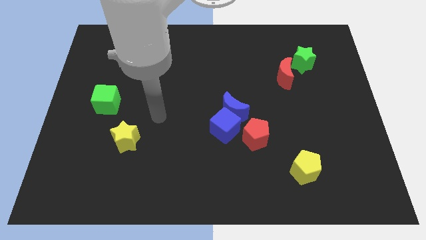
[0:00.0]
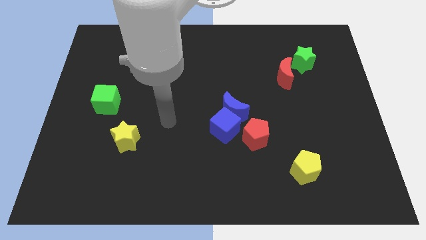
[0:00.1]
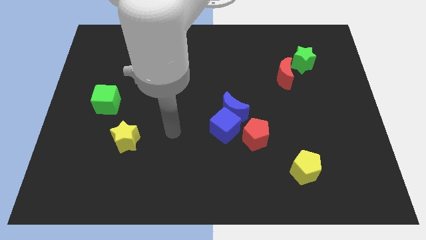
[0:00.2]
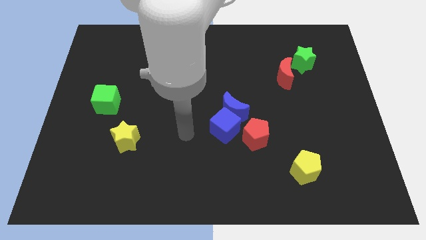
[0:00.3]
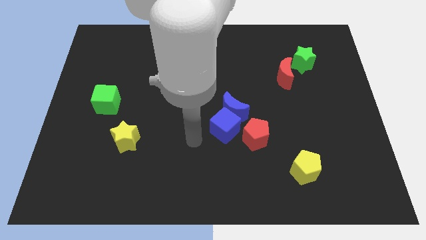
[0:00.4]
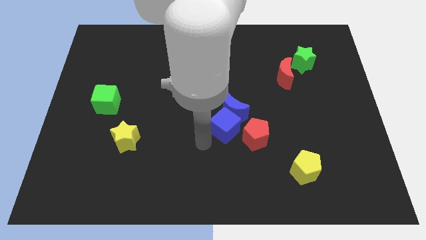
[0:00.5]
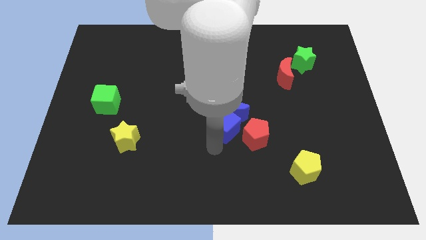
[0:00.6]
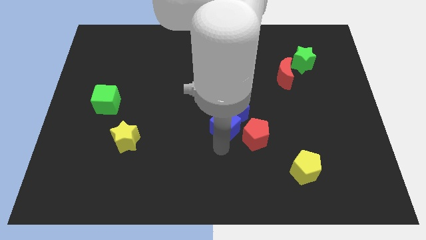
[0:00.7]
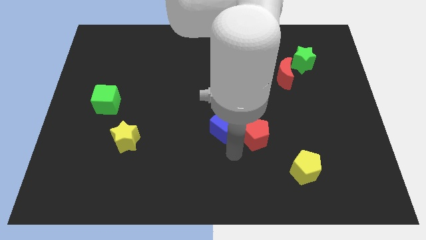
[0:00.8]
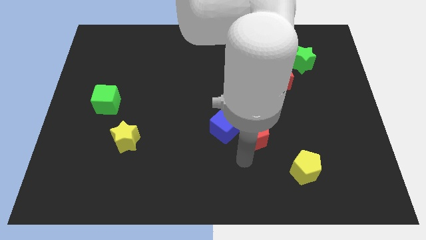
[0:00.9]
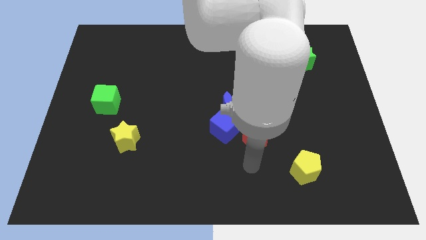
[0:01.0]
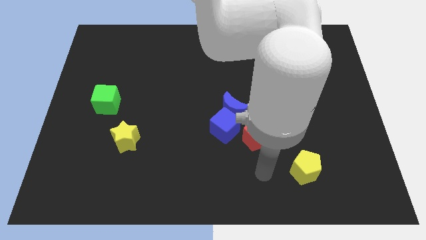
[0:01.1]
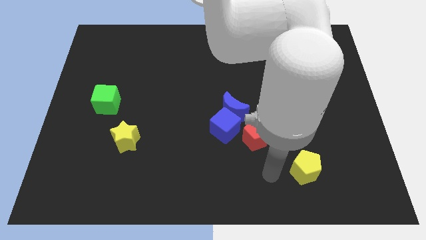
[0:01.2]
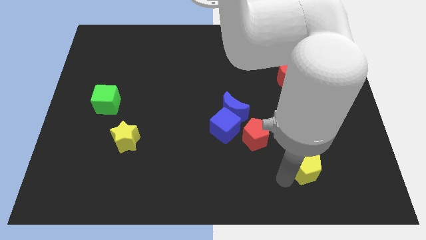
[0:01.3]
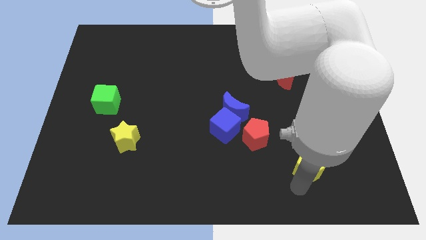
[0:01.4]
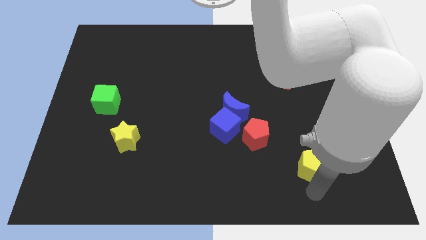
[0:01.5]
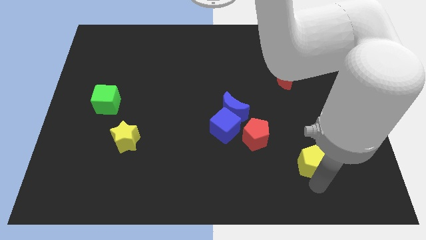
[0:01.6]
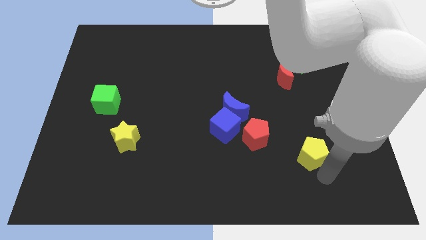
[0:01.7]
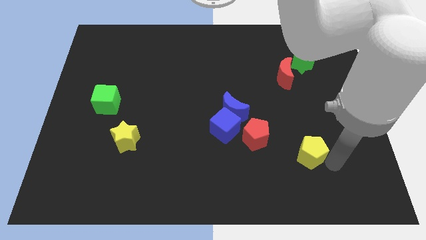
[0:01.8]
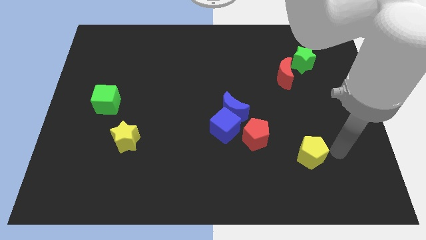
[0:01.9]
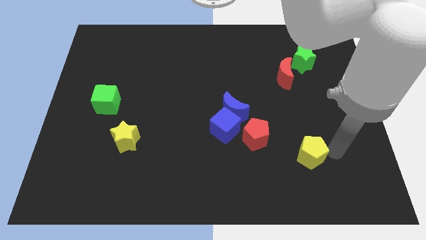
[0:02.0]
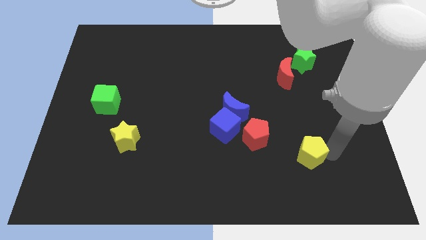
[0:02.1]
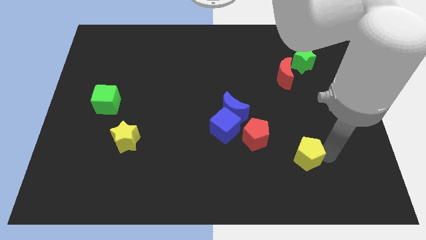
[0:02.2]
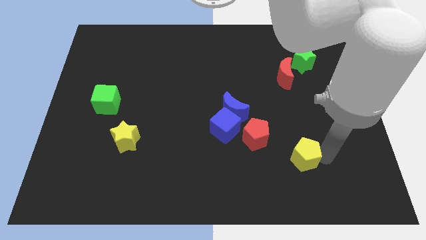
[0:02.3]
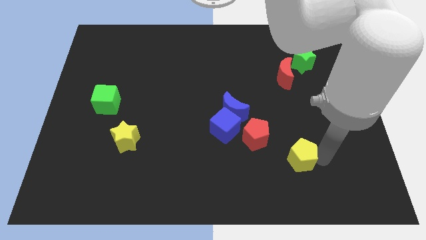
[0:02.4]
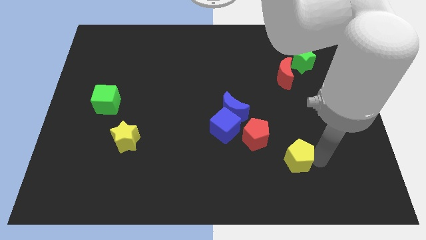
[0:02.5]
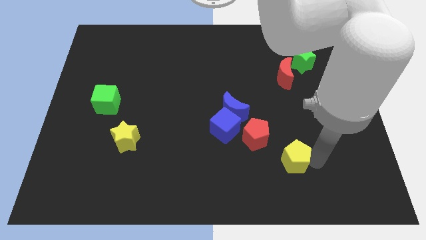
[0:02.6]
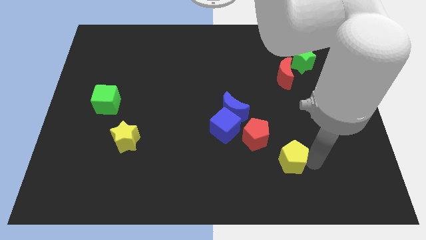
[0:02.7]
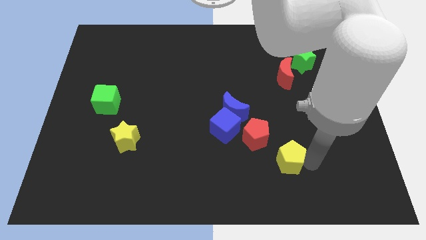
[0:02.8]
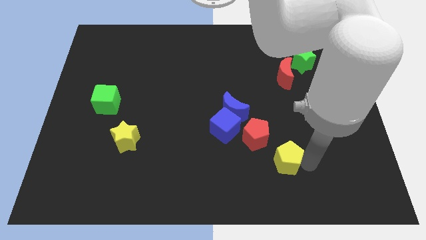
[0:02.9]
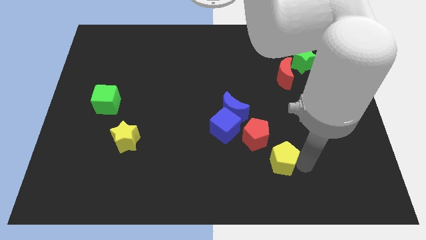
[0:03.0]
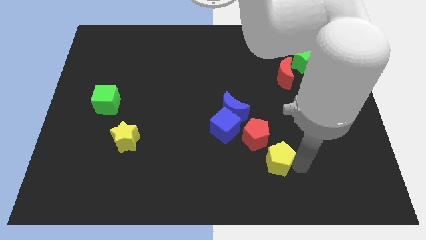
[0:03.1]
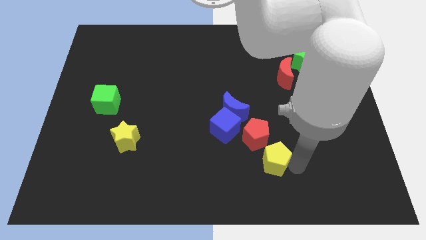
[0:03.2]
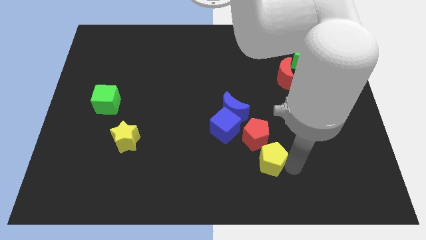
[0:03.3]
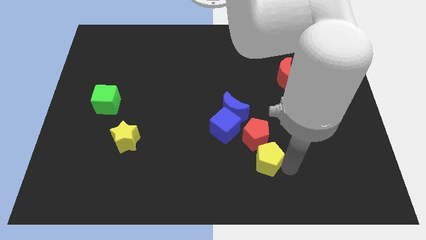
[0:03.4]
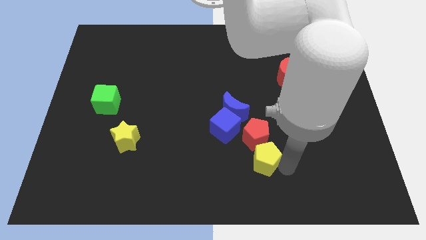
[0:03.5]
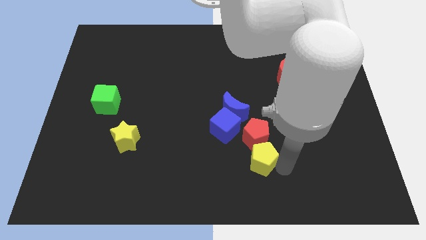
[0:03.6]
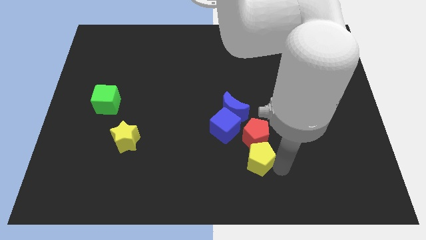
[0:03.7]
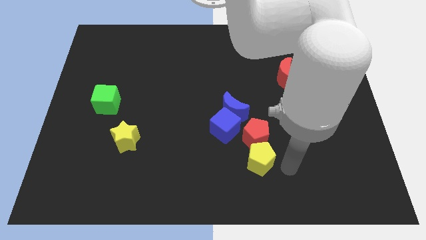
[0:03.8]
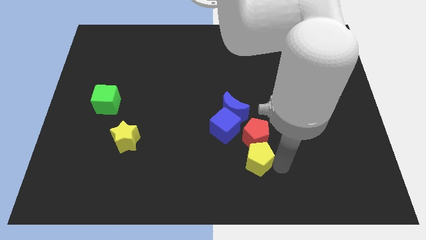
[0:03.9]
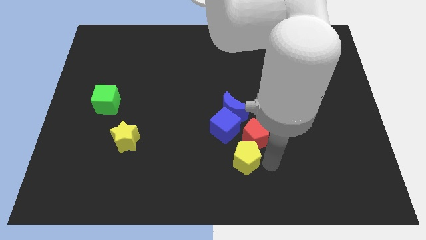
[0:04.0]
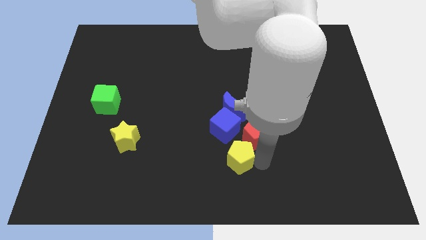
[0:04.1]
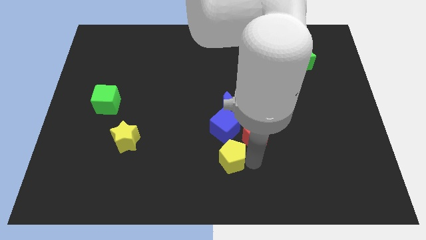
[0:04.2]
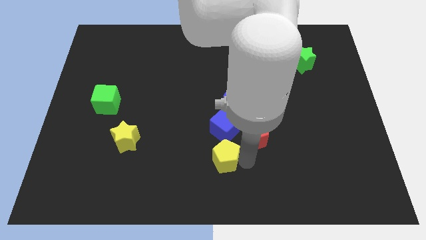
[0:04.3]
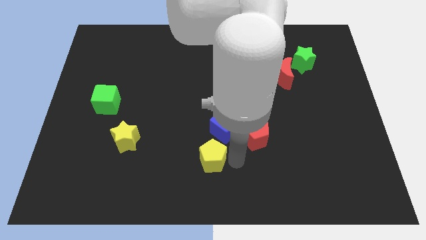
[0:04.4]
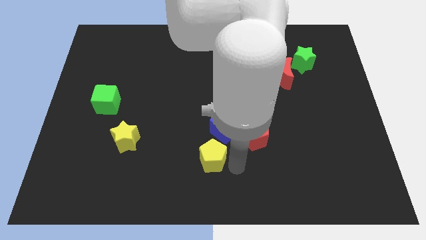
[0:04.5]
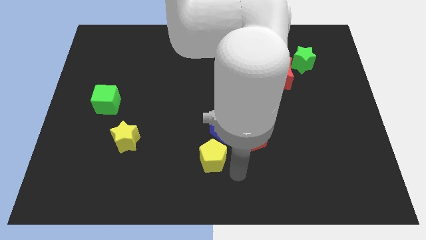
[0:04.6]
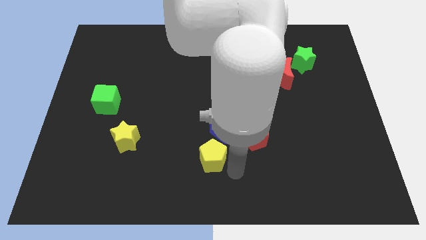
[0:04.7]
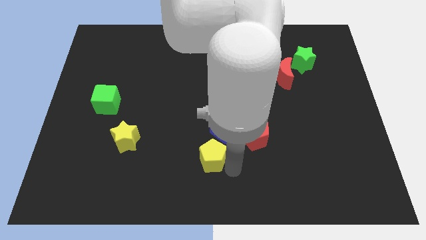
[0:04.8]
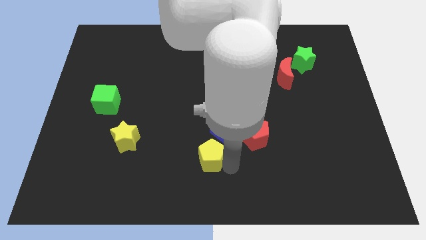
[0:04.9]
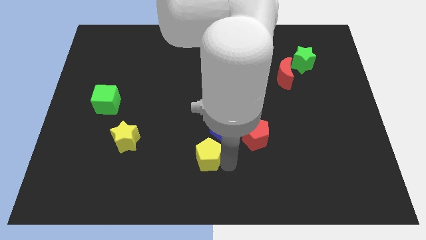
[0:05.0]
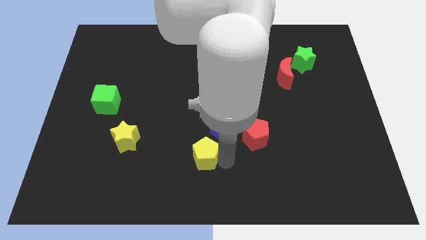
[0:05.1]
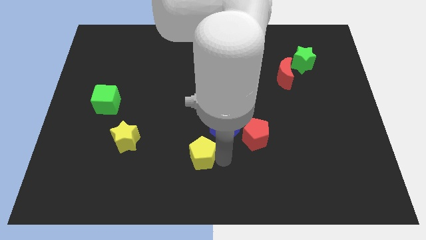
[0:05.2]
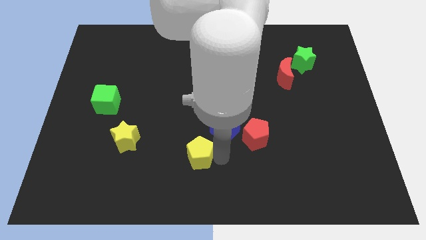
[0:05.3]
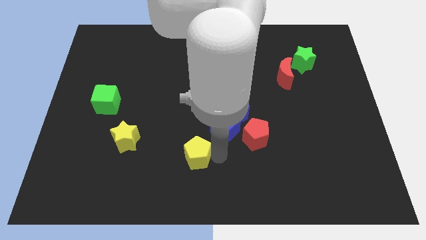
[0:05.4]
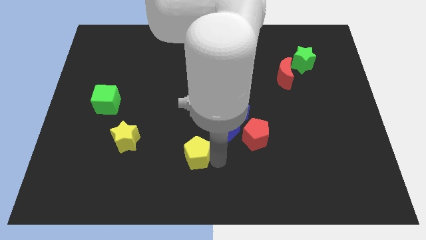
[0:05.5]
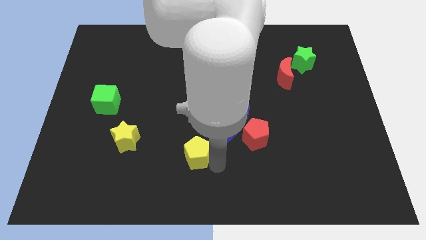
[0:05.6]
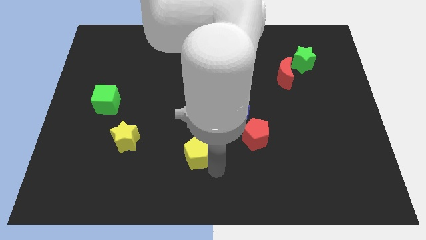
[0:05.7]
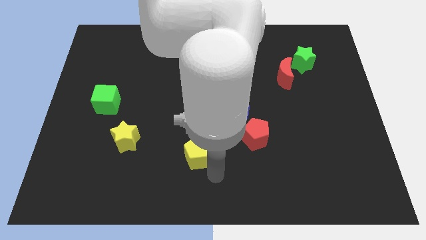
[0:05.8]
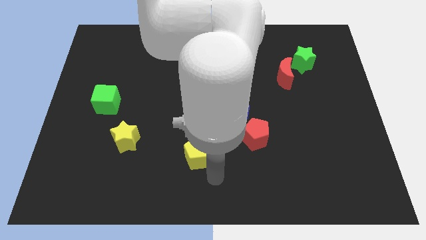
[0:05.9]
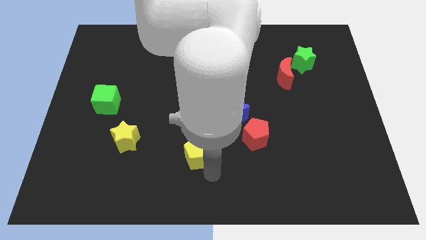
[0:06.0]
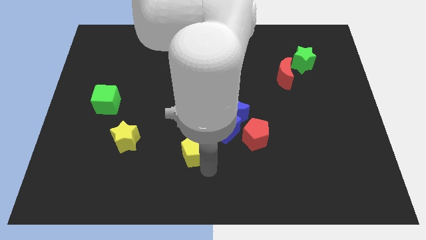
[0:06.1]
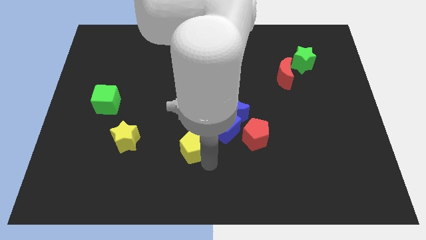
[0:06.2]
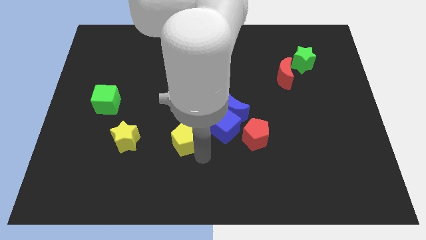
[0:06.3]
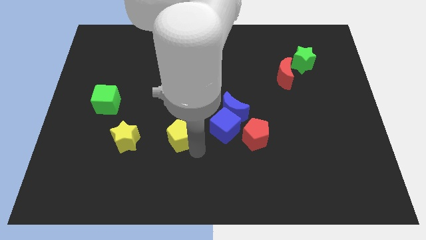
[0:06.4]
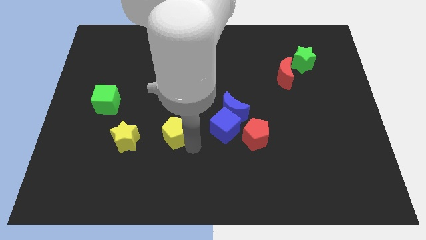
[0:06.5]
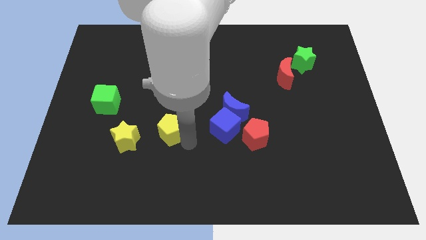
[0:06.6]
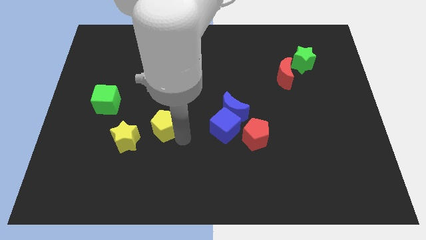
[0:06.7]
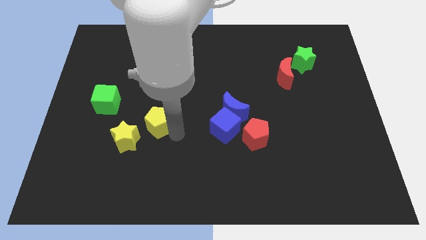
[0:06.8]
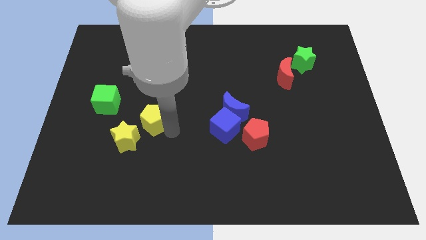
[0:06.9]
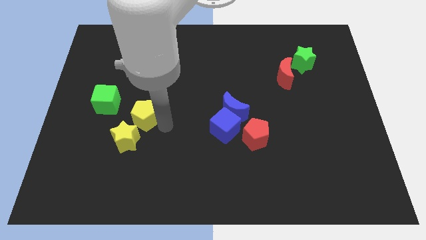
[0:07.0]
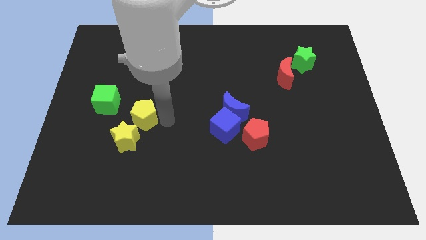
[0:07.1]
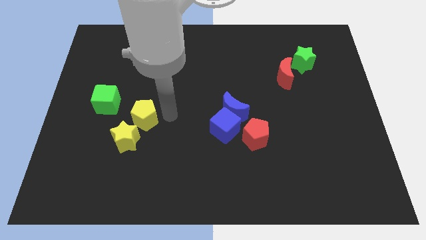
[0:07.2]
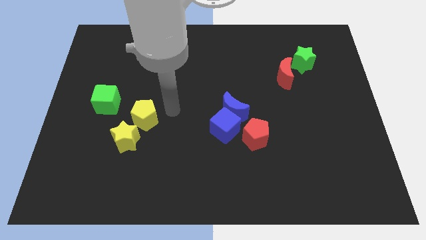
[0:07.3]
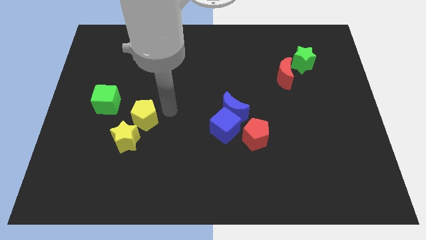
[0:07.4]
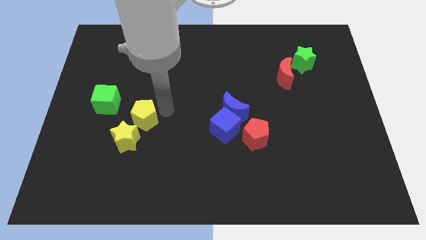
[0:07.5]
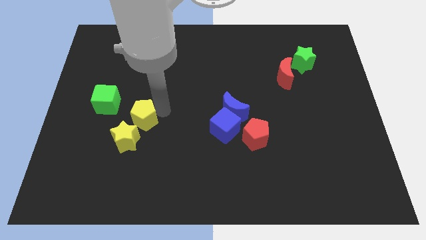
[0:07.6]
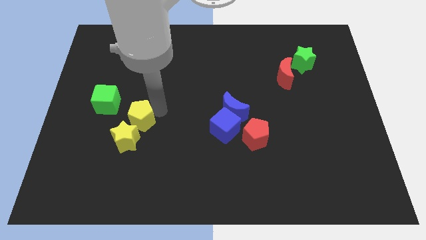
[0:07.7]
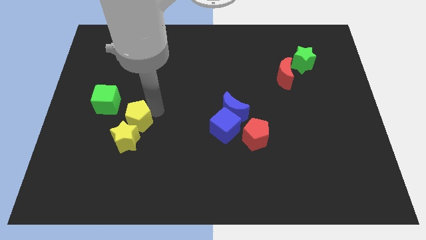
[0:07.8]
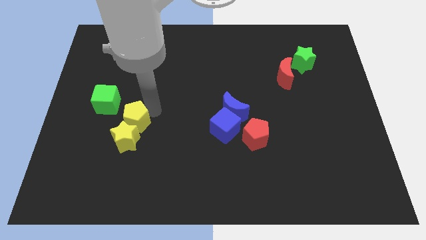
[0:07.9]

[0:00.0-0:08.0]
slide the yellow pentagon diagonally up and to the left of the yellow star
